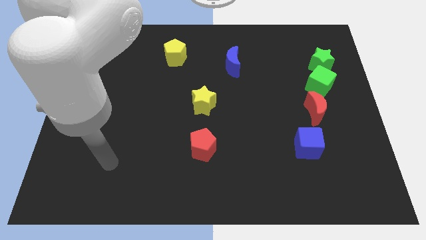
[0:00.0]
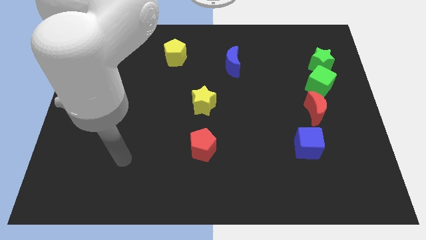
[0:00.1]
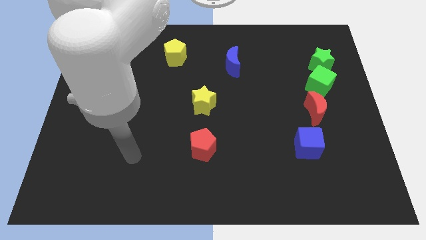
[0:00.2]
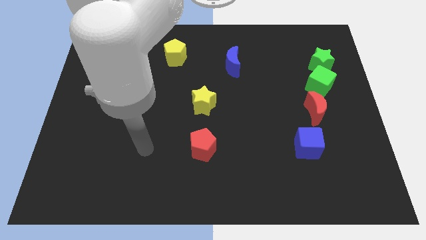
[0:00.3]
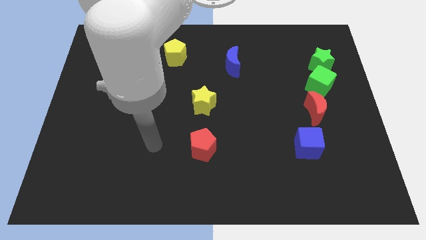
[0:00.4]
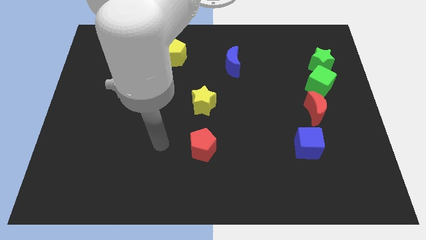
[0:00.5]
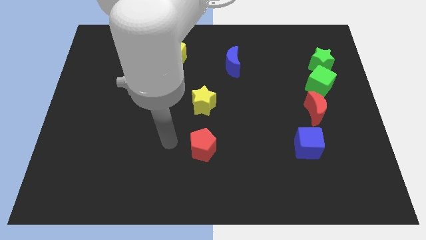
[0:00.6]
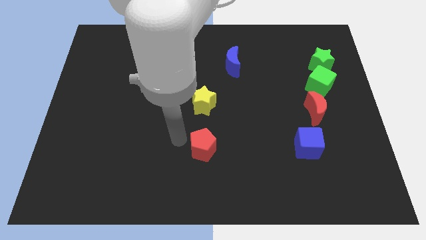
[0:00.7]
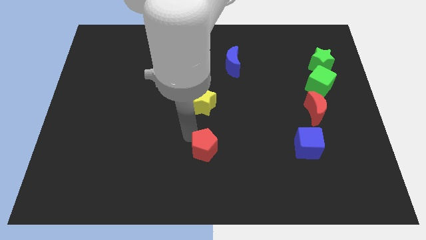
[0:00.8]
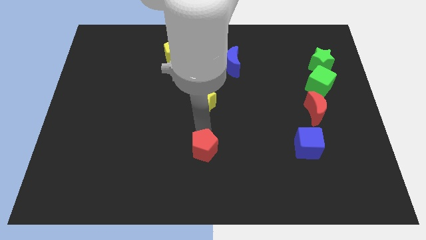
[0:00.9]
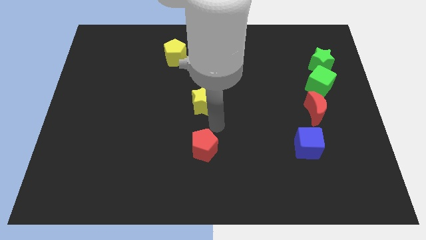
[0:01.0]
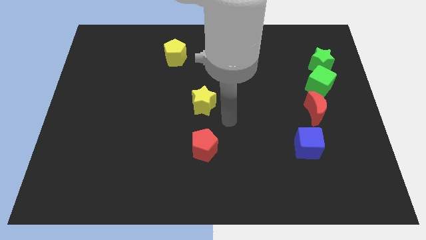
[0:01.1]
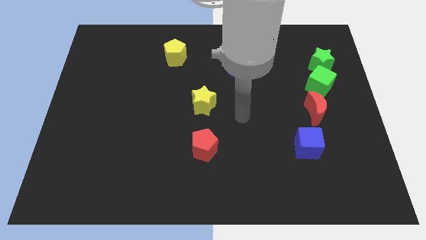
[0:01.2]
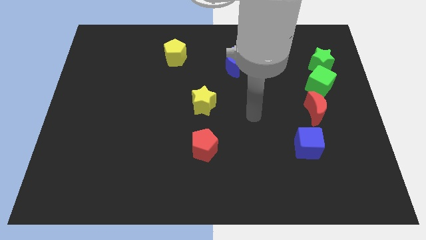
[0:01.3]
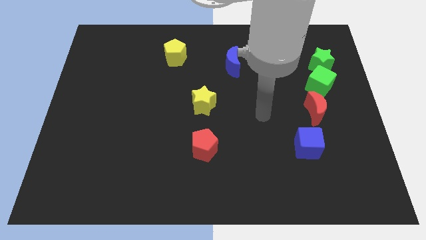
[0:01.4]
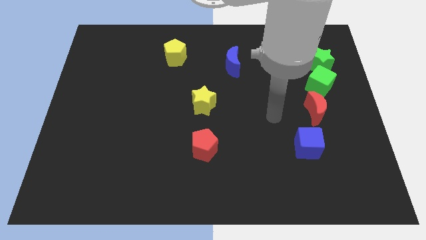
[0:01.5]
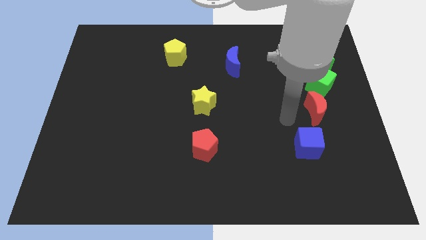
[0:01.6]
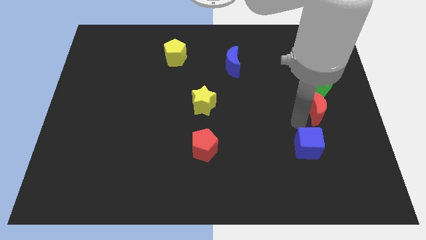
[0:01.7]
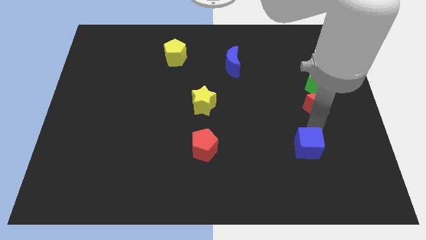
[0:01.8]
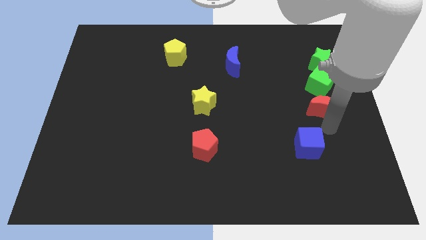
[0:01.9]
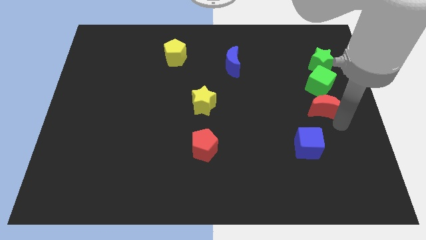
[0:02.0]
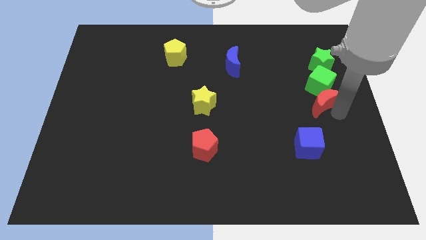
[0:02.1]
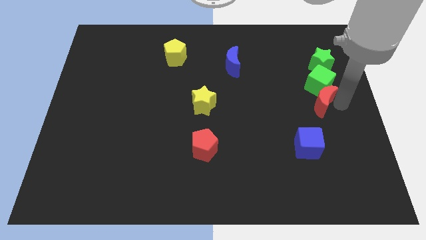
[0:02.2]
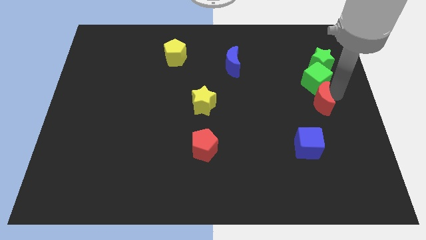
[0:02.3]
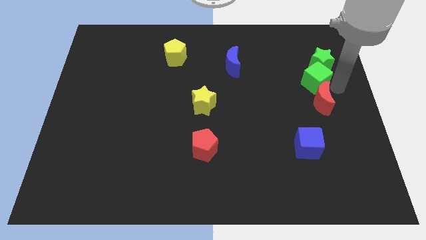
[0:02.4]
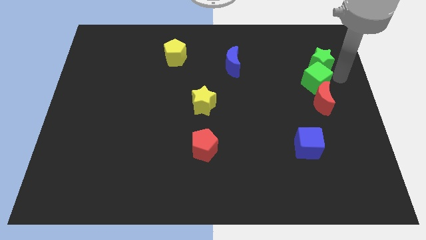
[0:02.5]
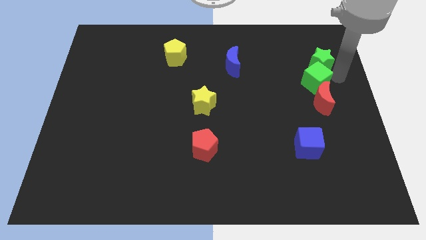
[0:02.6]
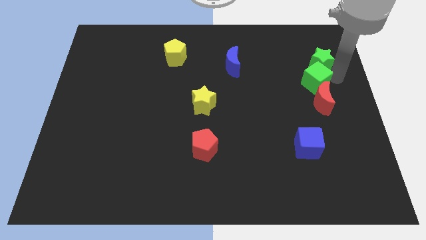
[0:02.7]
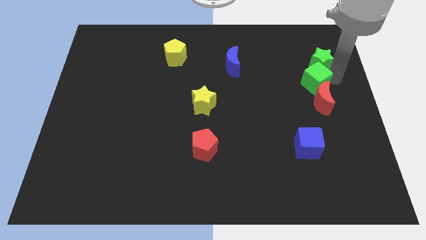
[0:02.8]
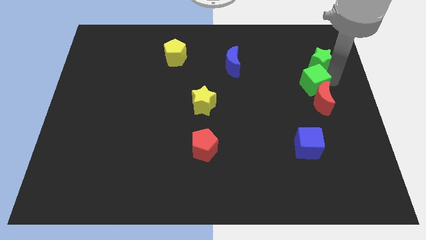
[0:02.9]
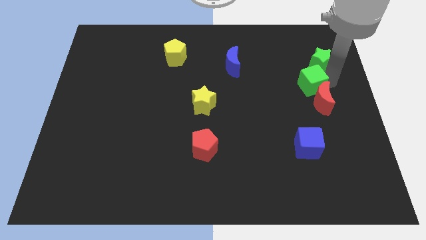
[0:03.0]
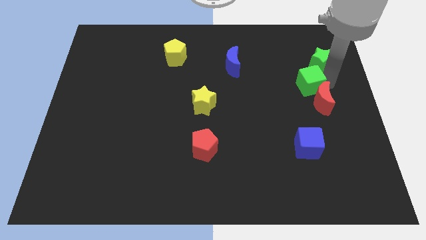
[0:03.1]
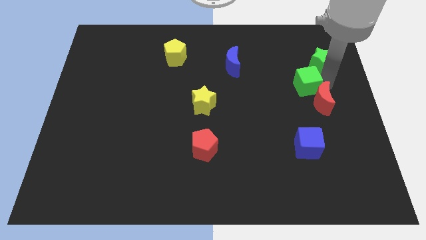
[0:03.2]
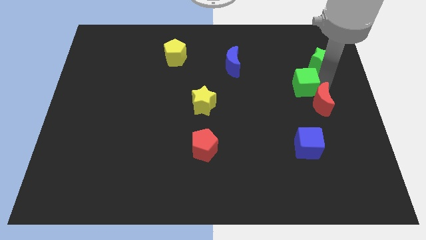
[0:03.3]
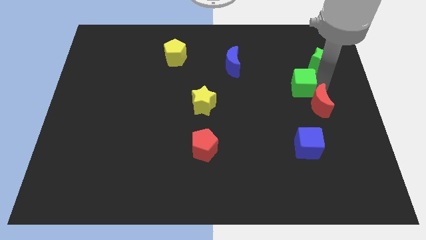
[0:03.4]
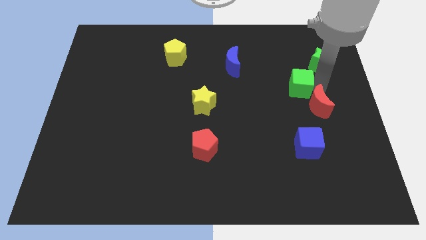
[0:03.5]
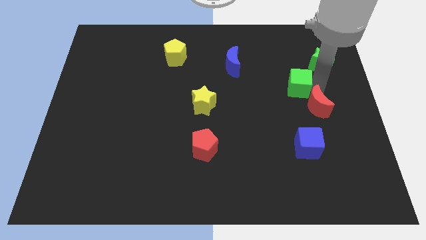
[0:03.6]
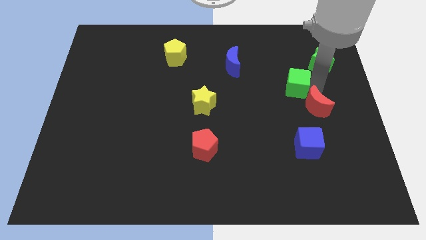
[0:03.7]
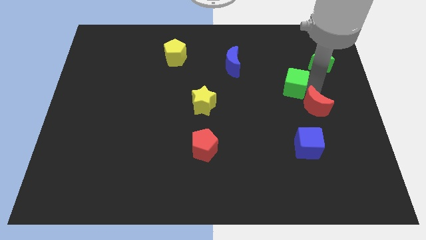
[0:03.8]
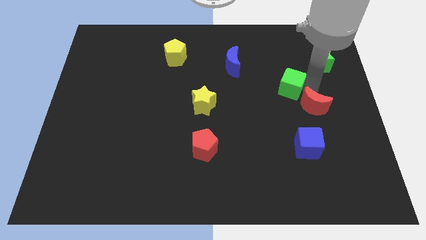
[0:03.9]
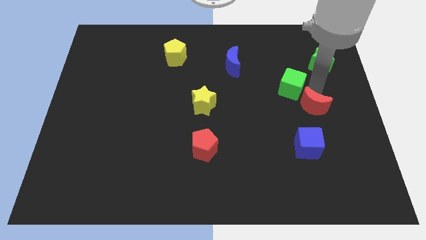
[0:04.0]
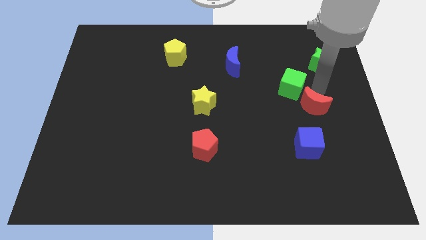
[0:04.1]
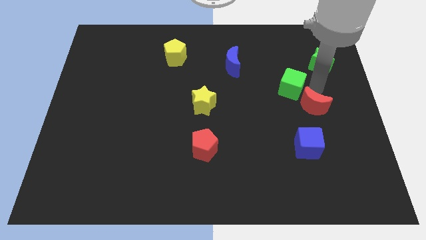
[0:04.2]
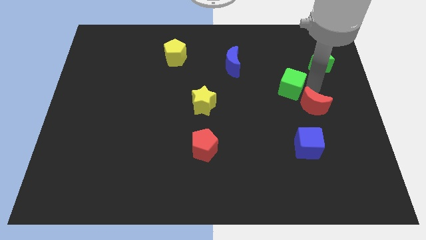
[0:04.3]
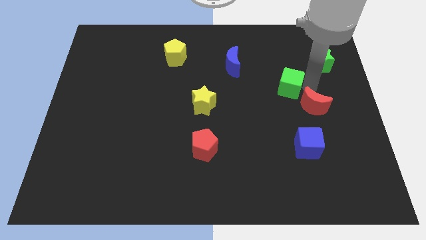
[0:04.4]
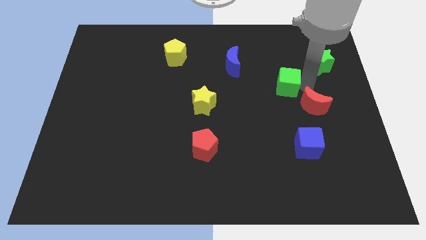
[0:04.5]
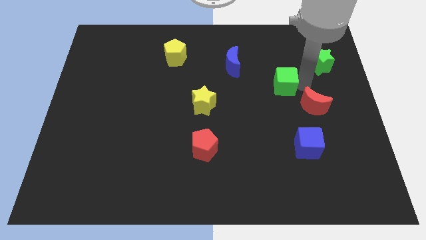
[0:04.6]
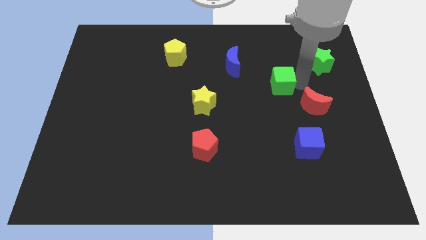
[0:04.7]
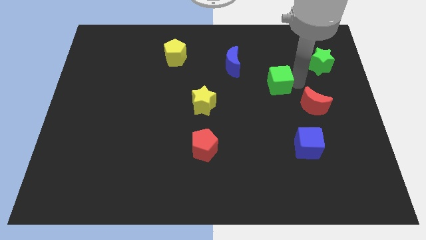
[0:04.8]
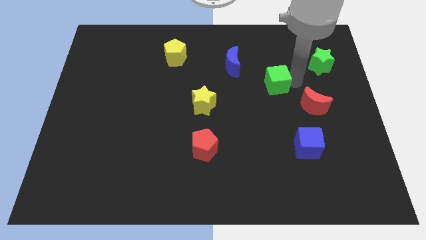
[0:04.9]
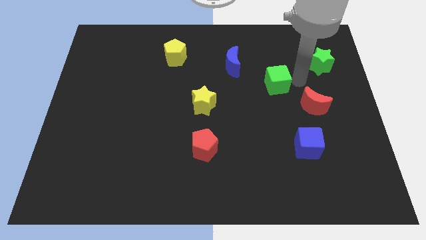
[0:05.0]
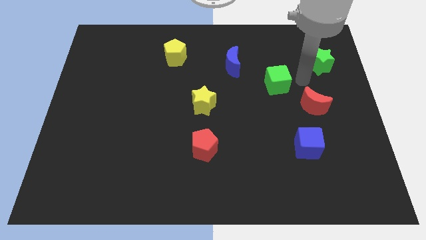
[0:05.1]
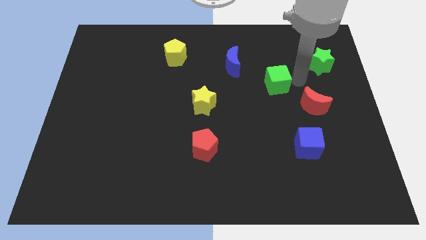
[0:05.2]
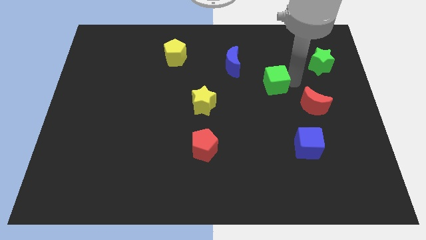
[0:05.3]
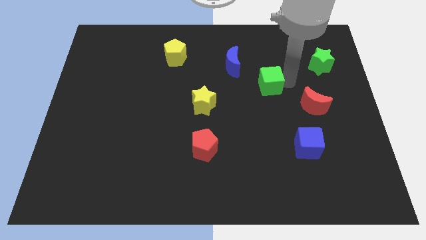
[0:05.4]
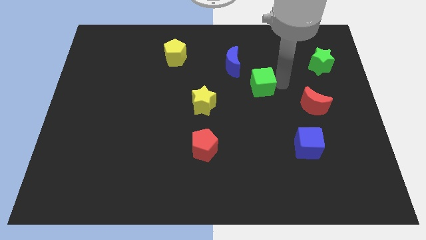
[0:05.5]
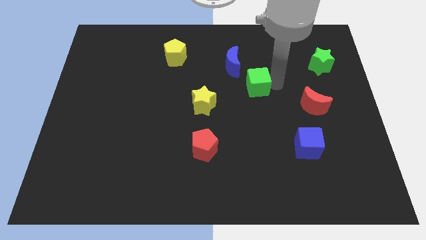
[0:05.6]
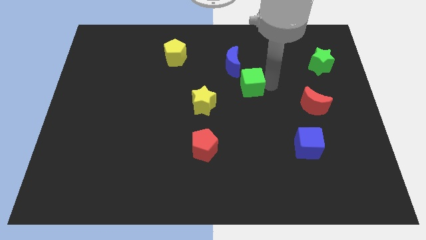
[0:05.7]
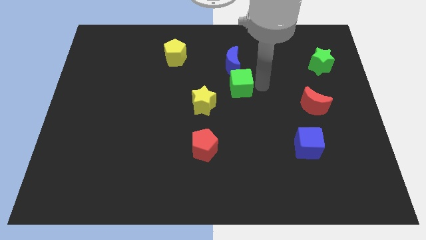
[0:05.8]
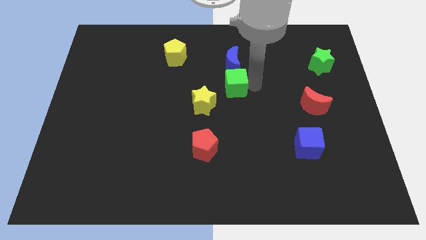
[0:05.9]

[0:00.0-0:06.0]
move the green cube left

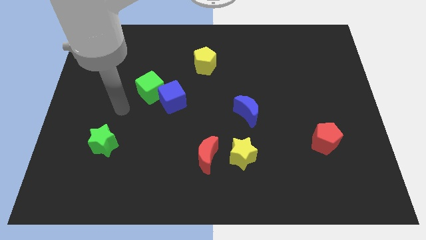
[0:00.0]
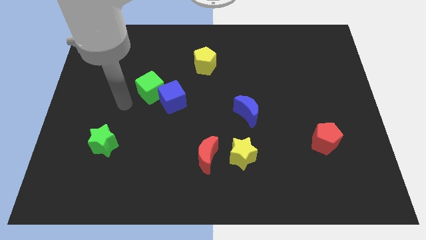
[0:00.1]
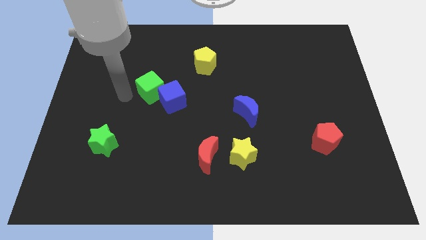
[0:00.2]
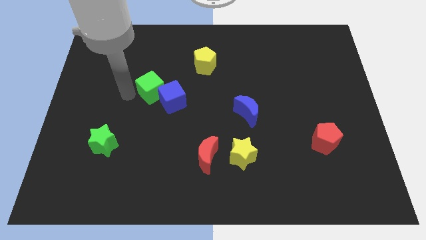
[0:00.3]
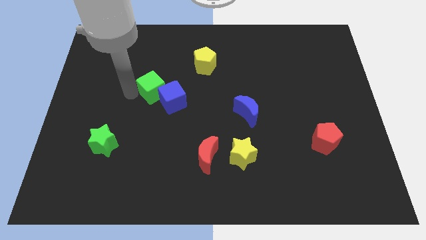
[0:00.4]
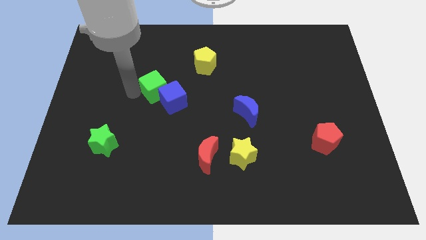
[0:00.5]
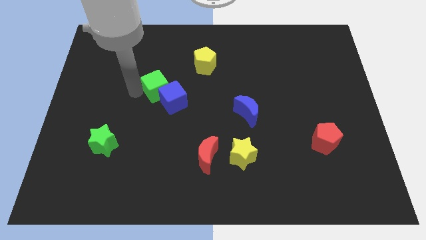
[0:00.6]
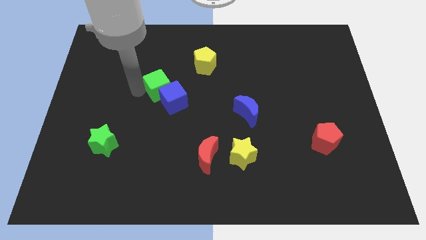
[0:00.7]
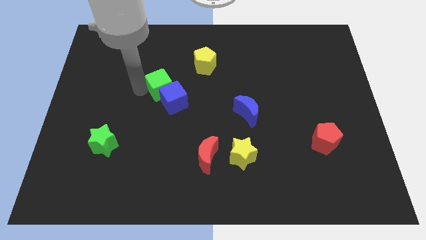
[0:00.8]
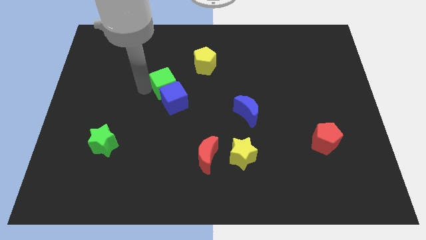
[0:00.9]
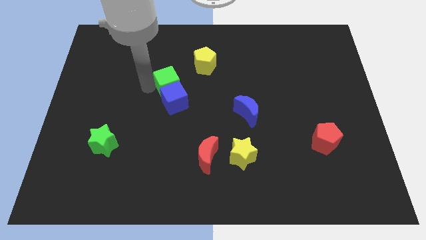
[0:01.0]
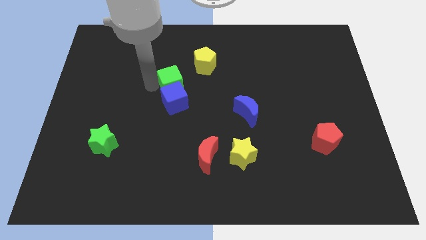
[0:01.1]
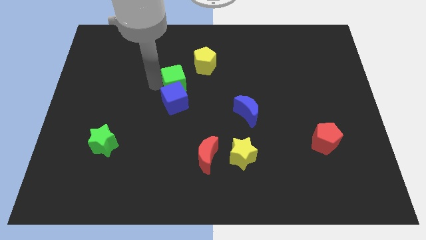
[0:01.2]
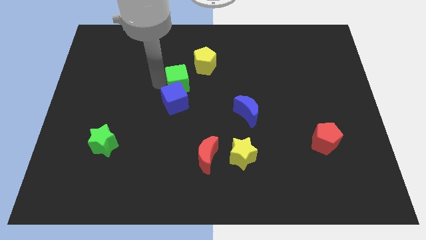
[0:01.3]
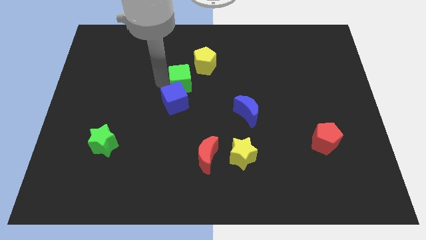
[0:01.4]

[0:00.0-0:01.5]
move the green cube a bit to the right

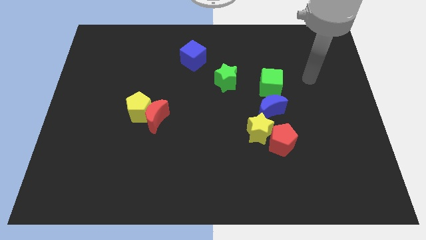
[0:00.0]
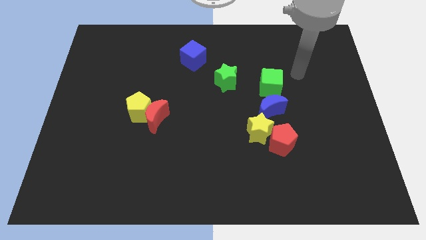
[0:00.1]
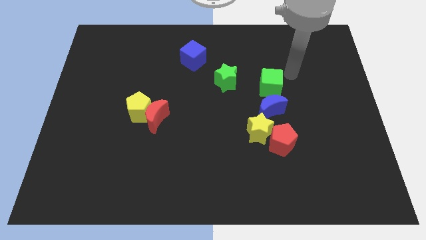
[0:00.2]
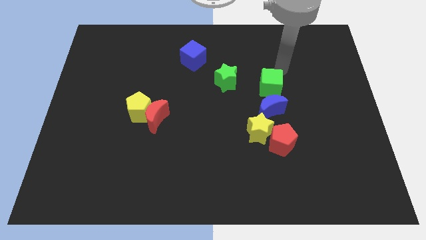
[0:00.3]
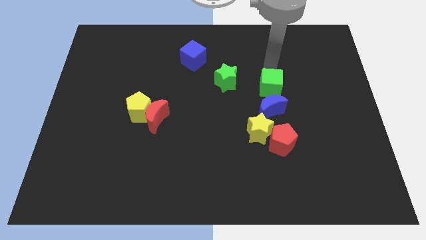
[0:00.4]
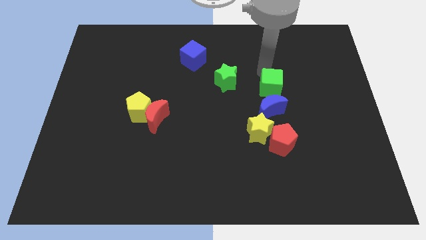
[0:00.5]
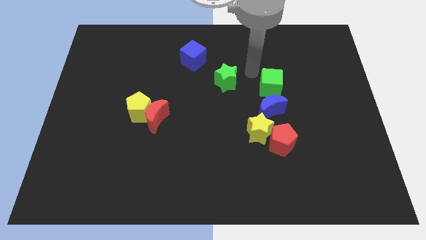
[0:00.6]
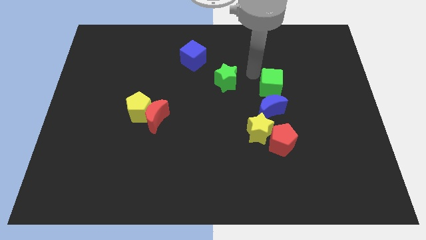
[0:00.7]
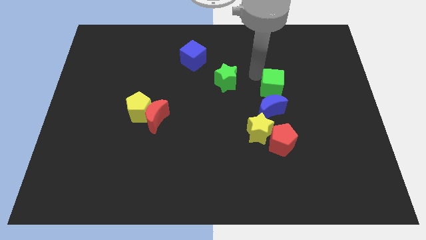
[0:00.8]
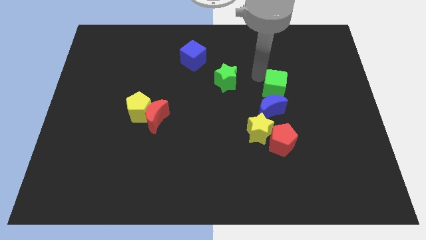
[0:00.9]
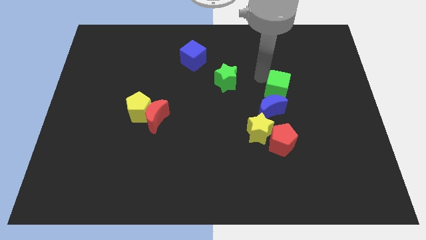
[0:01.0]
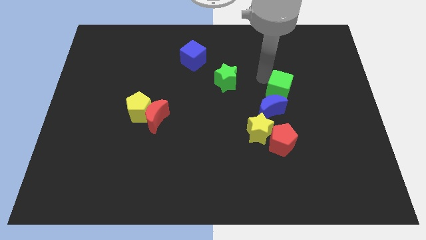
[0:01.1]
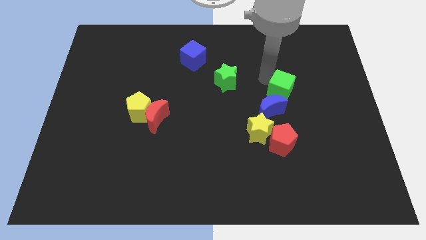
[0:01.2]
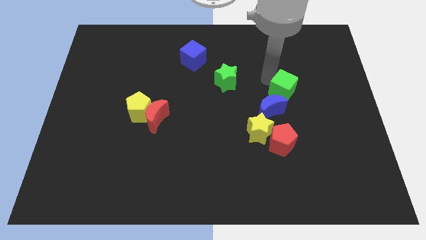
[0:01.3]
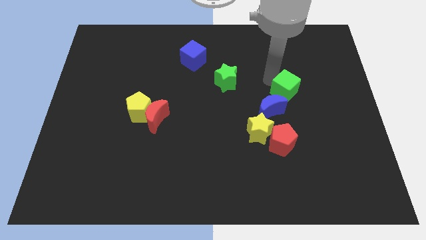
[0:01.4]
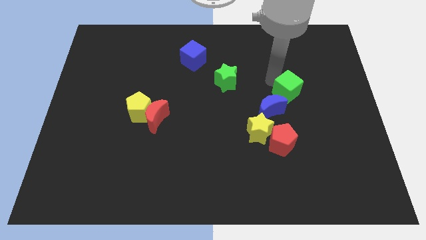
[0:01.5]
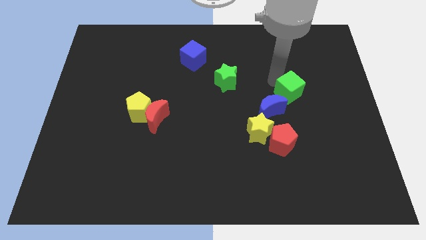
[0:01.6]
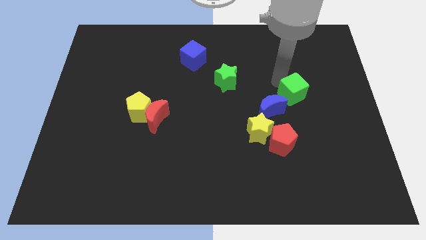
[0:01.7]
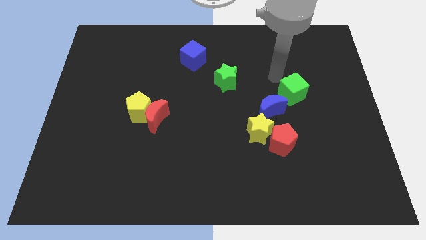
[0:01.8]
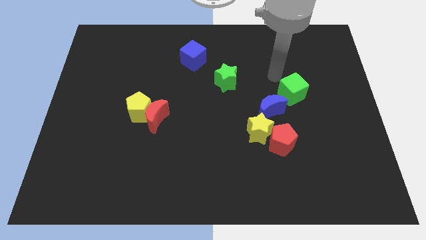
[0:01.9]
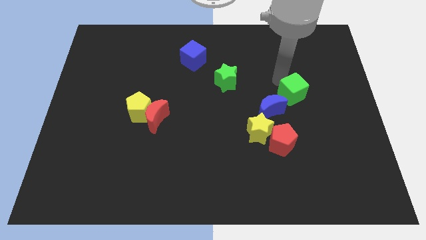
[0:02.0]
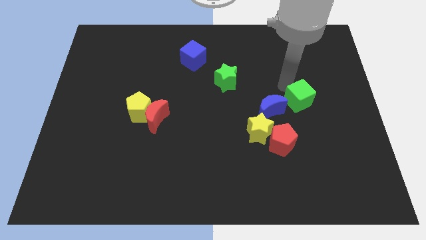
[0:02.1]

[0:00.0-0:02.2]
slightly slide the green cube downwards and to the right
